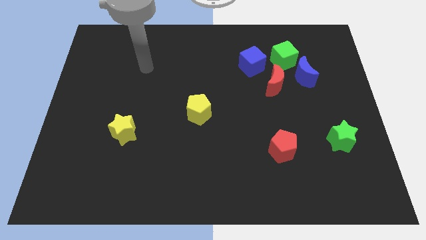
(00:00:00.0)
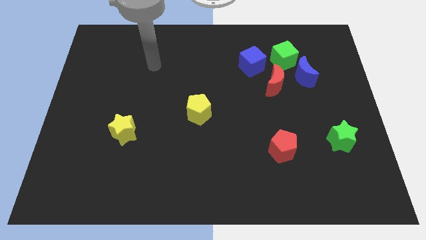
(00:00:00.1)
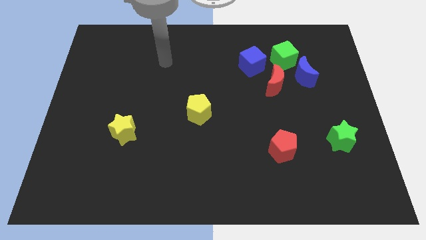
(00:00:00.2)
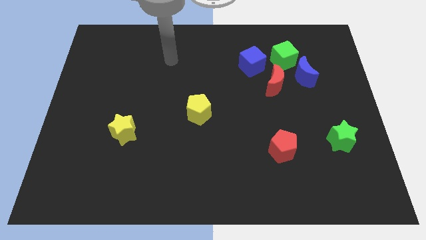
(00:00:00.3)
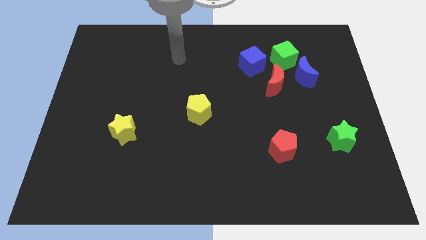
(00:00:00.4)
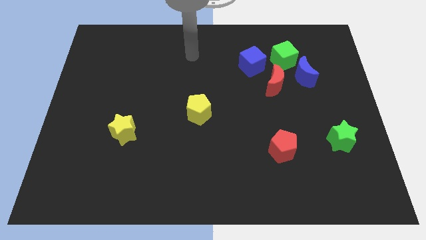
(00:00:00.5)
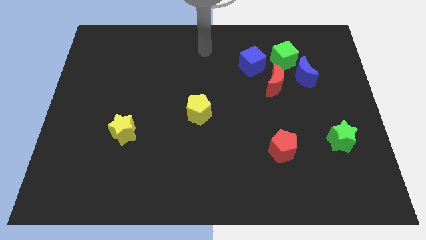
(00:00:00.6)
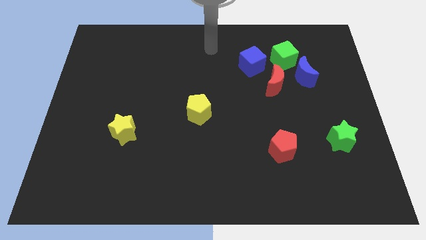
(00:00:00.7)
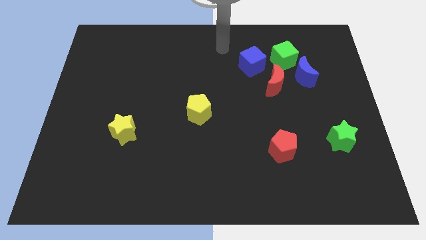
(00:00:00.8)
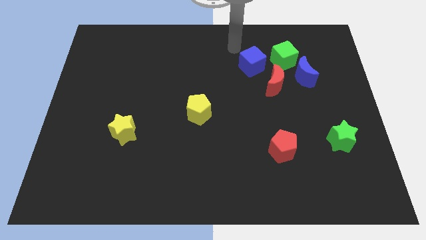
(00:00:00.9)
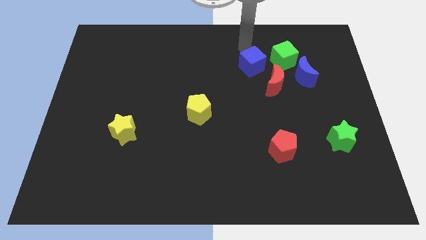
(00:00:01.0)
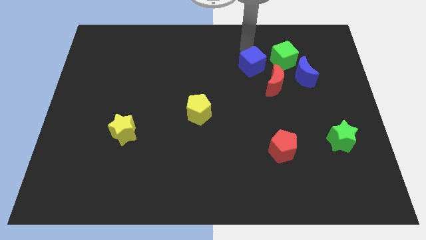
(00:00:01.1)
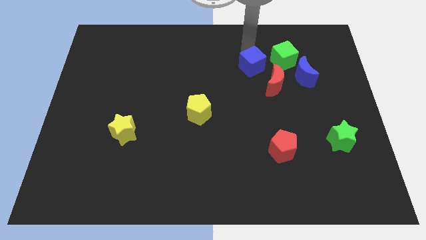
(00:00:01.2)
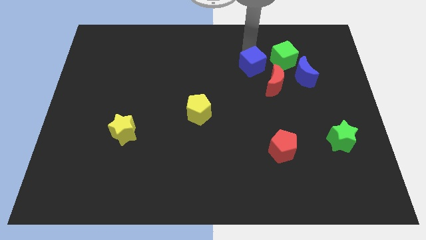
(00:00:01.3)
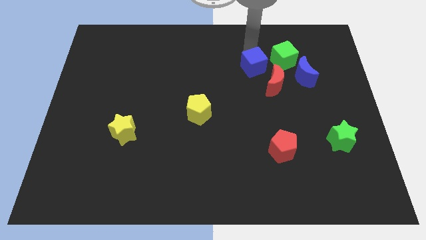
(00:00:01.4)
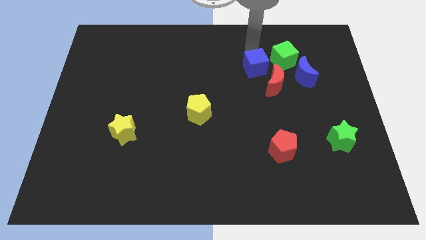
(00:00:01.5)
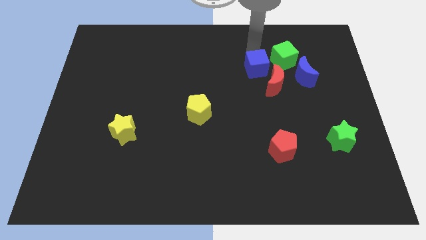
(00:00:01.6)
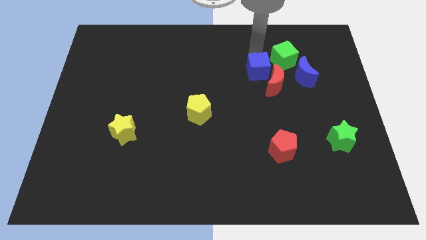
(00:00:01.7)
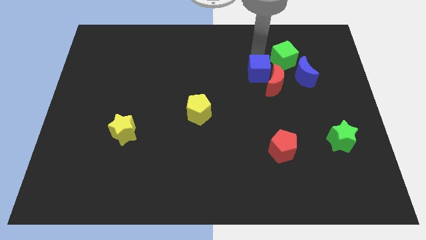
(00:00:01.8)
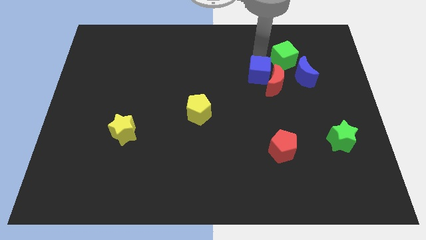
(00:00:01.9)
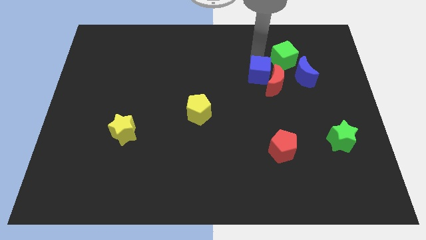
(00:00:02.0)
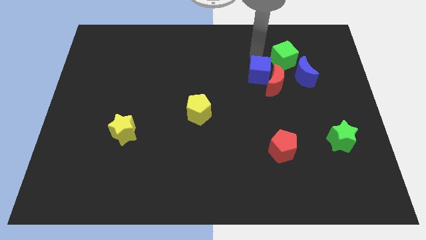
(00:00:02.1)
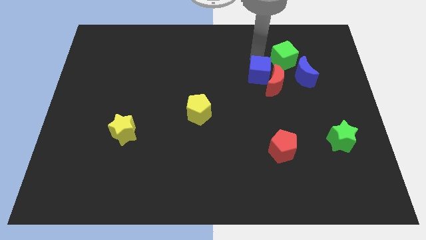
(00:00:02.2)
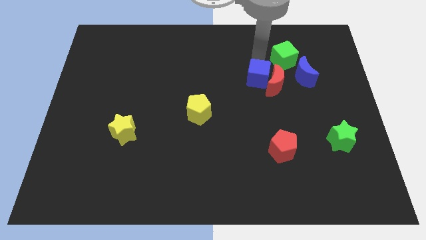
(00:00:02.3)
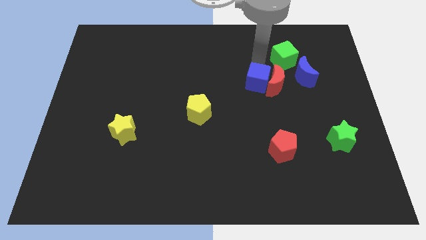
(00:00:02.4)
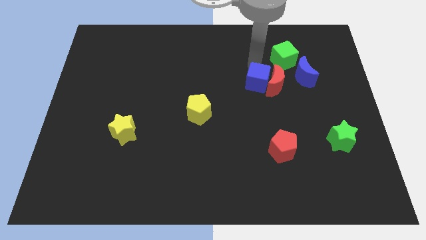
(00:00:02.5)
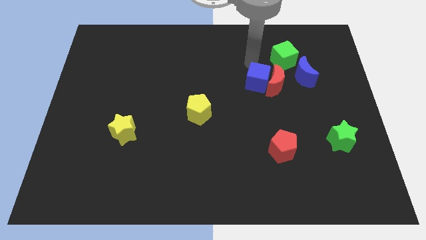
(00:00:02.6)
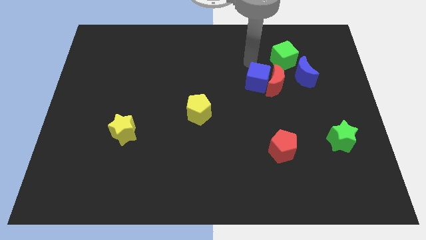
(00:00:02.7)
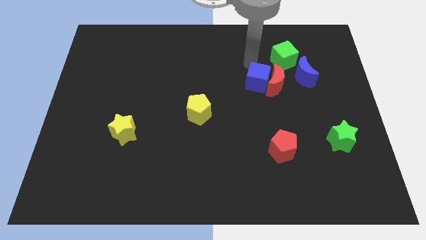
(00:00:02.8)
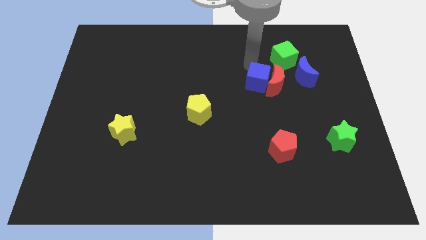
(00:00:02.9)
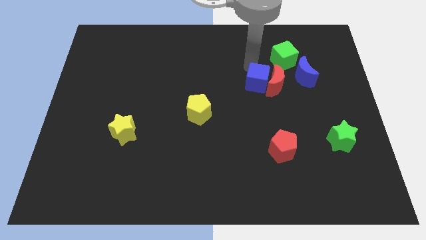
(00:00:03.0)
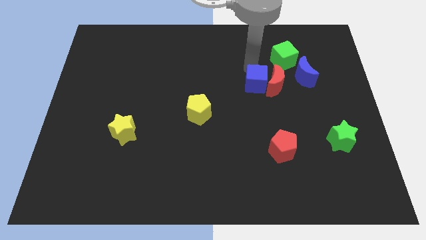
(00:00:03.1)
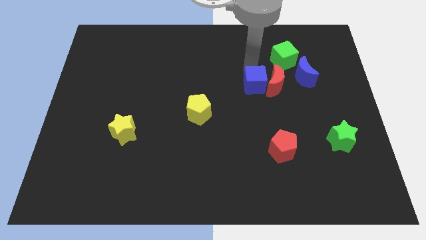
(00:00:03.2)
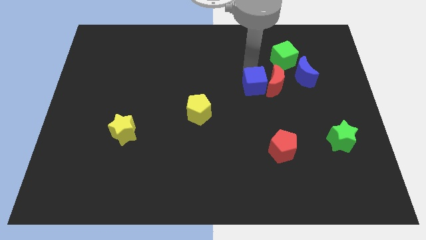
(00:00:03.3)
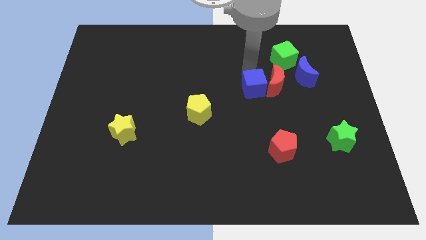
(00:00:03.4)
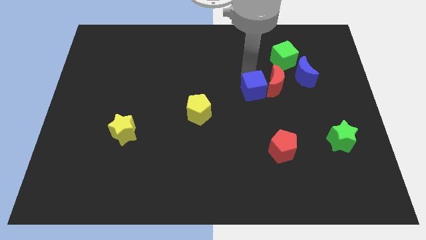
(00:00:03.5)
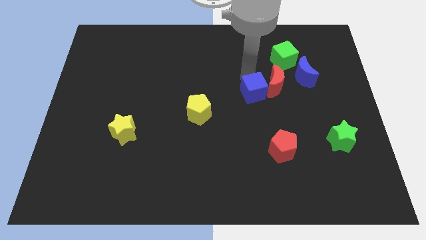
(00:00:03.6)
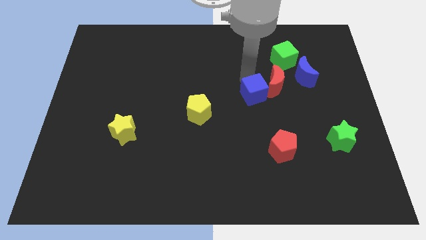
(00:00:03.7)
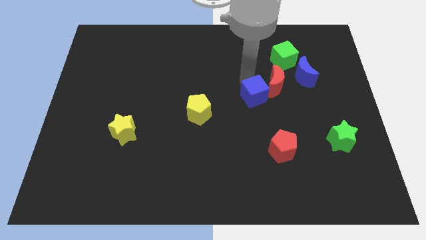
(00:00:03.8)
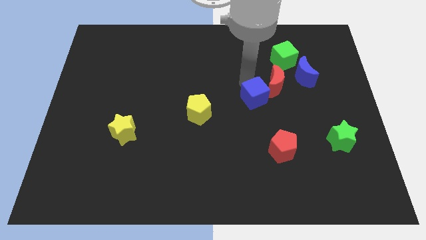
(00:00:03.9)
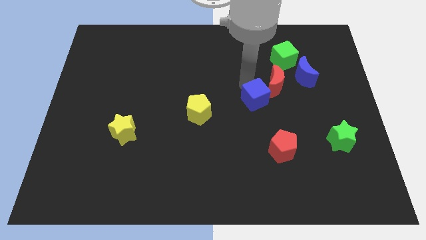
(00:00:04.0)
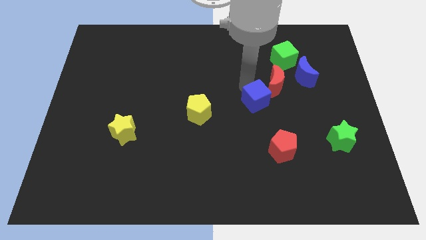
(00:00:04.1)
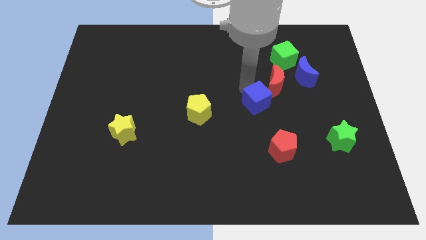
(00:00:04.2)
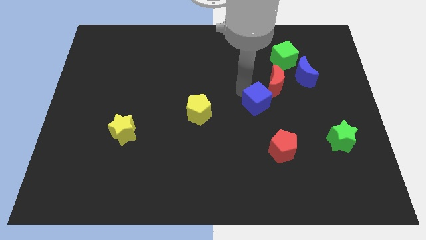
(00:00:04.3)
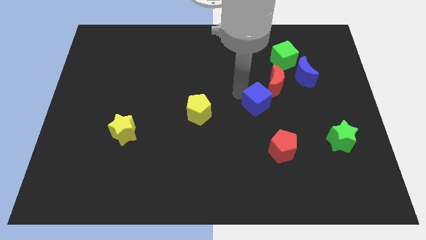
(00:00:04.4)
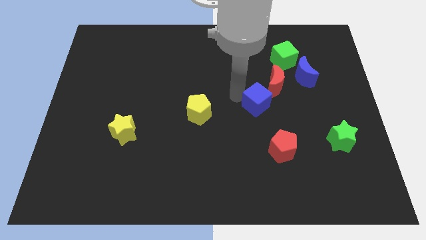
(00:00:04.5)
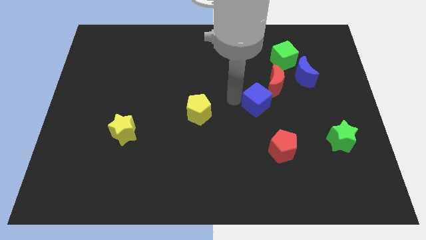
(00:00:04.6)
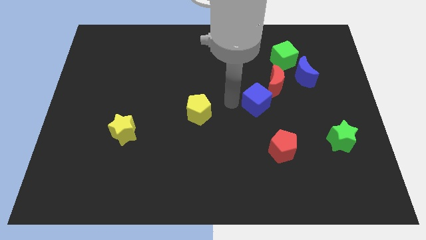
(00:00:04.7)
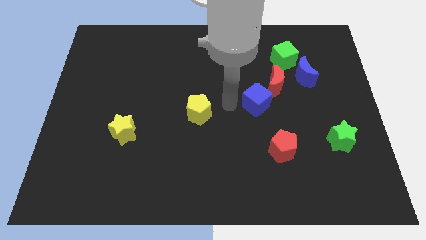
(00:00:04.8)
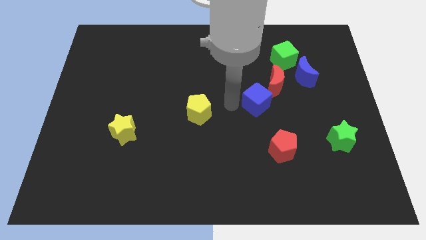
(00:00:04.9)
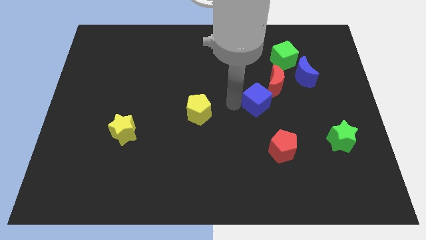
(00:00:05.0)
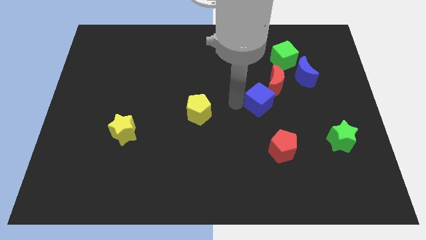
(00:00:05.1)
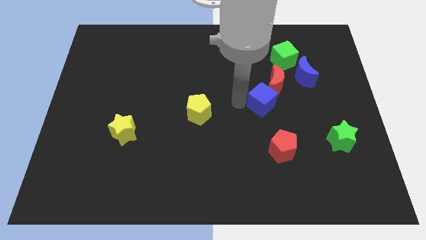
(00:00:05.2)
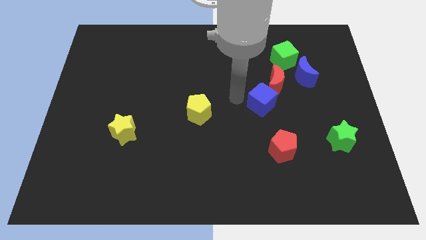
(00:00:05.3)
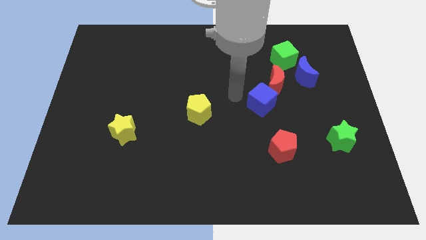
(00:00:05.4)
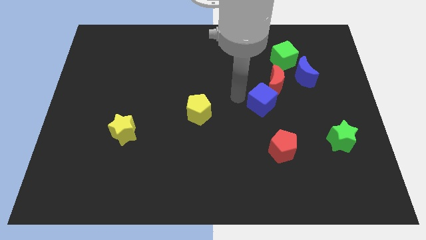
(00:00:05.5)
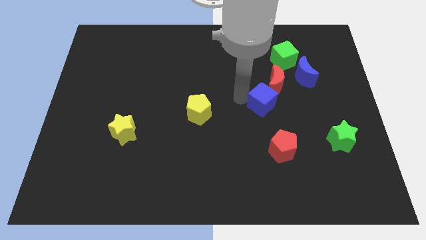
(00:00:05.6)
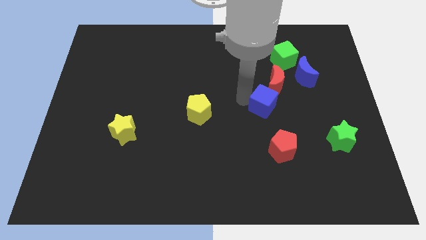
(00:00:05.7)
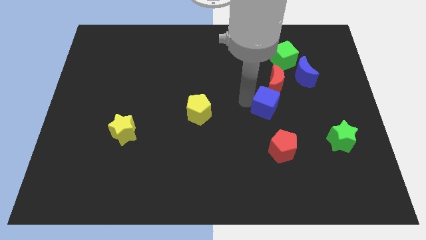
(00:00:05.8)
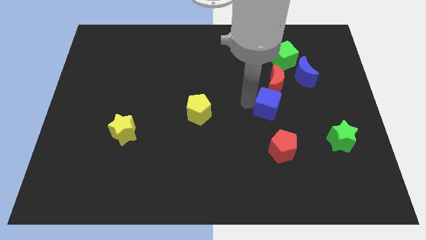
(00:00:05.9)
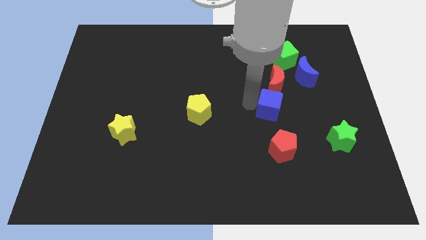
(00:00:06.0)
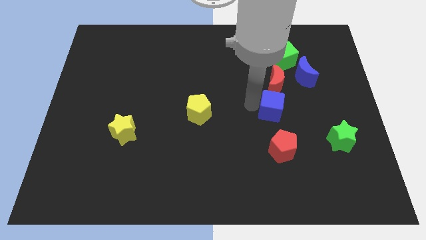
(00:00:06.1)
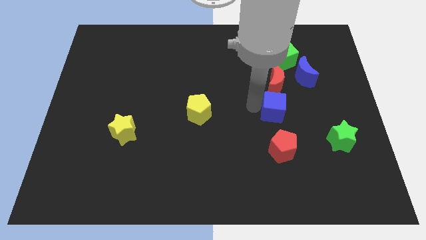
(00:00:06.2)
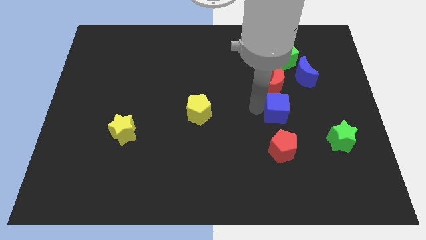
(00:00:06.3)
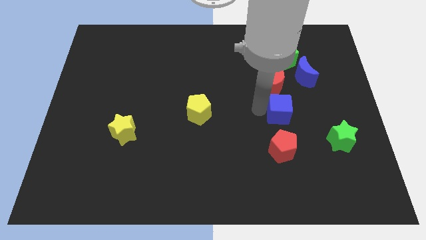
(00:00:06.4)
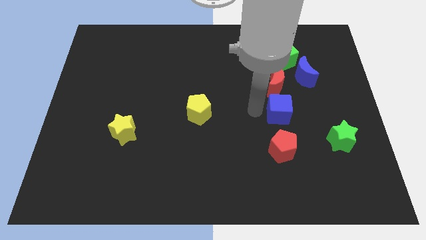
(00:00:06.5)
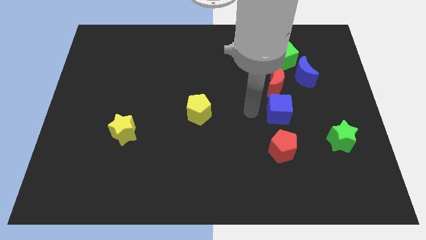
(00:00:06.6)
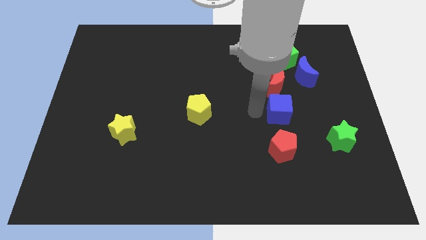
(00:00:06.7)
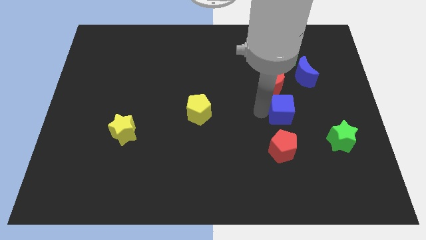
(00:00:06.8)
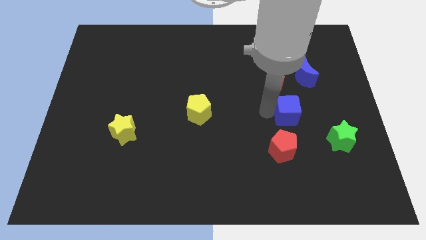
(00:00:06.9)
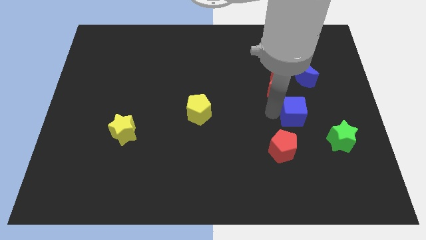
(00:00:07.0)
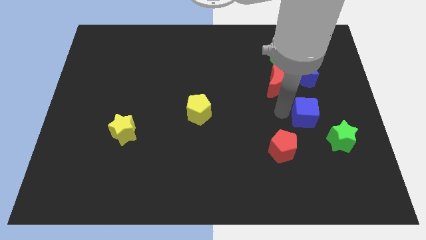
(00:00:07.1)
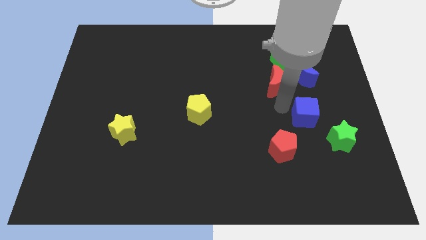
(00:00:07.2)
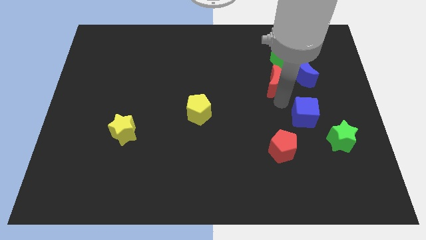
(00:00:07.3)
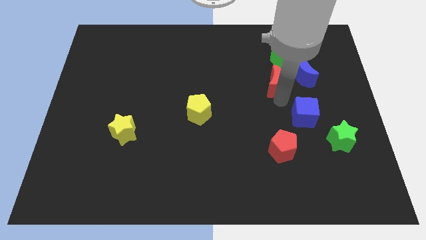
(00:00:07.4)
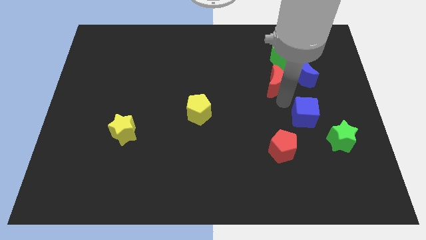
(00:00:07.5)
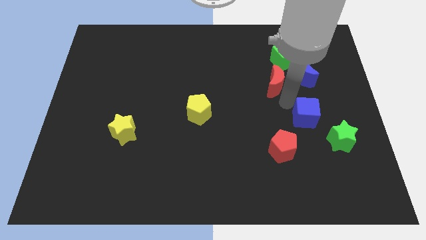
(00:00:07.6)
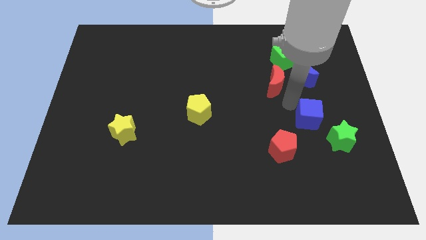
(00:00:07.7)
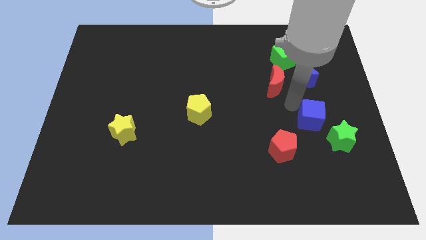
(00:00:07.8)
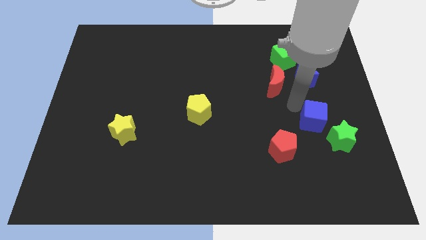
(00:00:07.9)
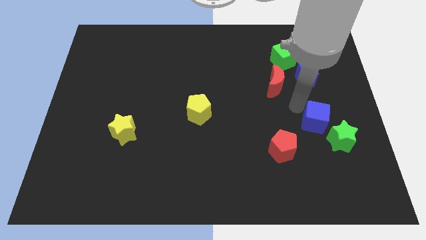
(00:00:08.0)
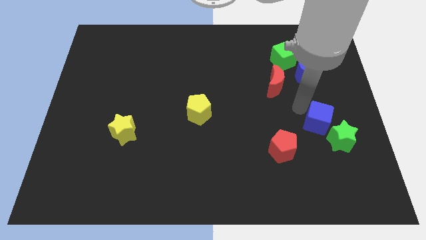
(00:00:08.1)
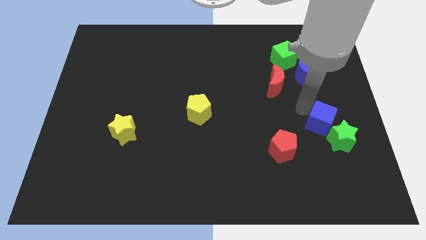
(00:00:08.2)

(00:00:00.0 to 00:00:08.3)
move the blue cube to the green star
